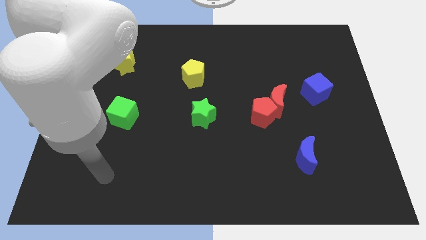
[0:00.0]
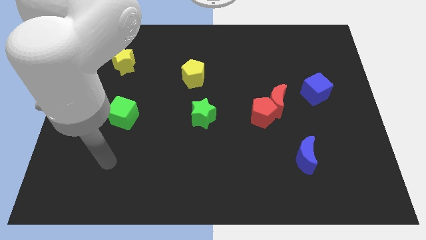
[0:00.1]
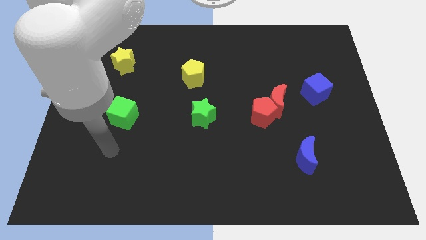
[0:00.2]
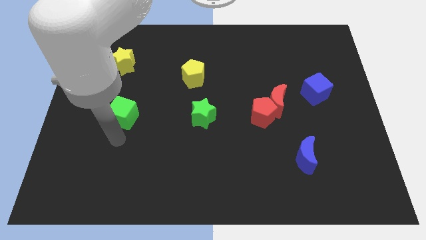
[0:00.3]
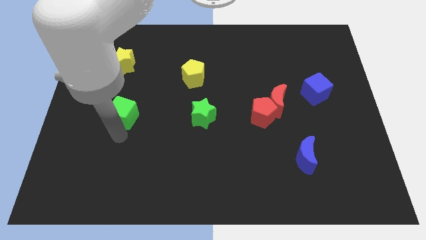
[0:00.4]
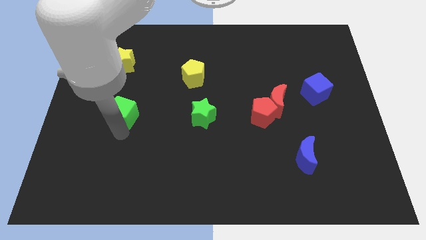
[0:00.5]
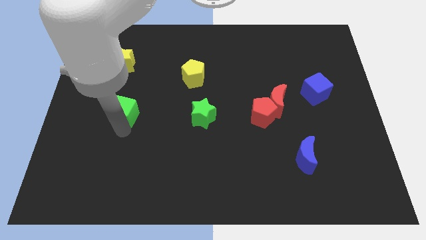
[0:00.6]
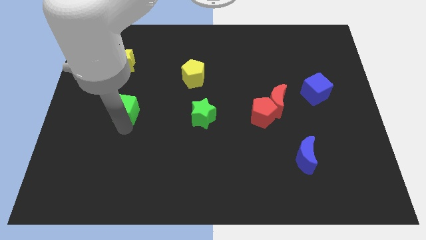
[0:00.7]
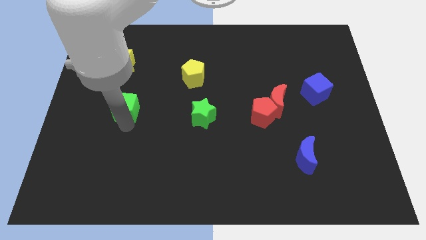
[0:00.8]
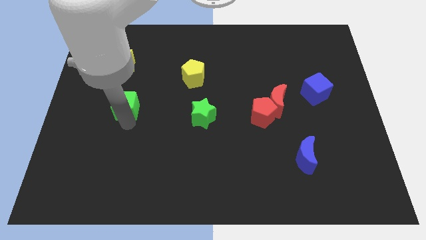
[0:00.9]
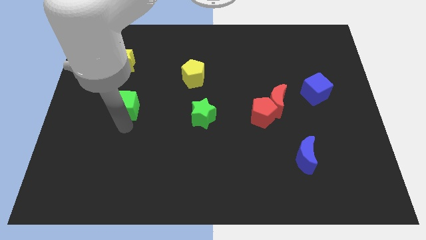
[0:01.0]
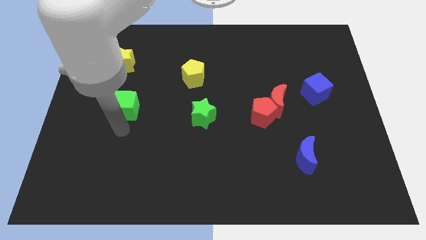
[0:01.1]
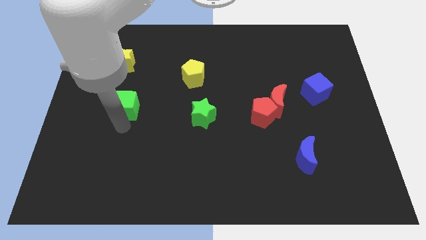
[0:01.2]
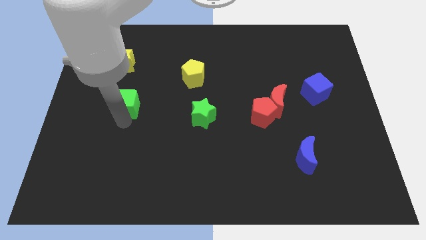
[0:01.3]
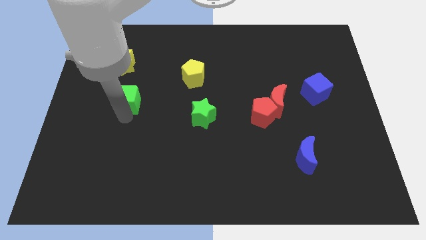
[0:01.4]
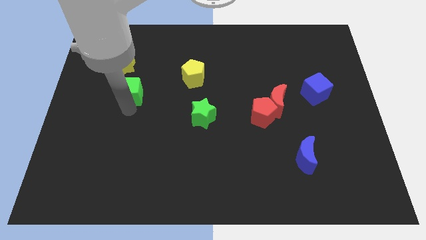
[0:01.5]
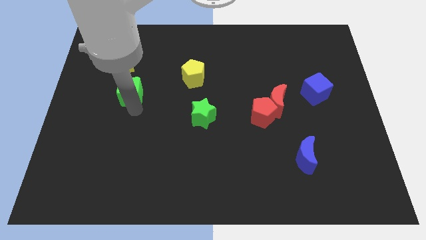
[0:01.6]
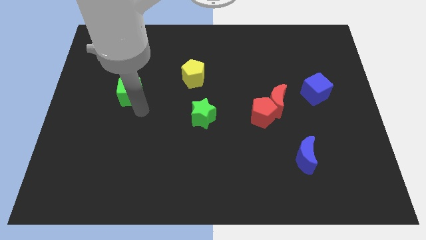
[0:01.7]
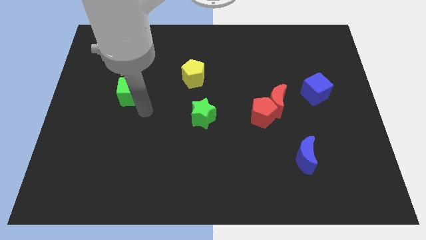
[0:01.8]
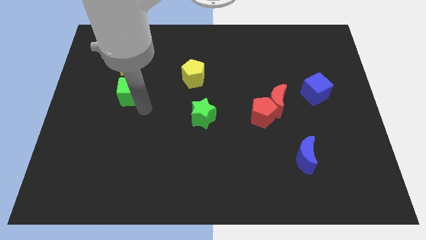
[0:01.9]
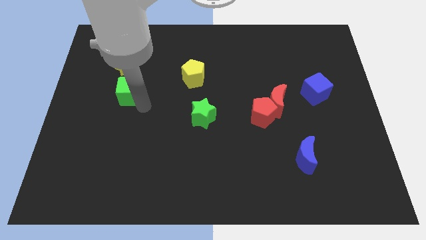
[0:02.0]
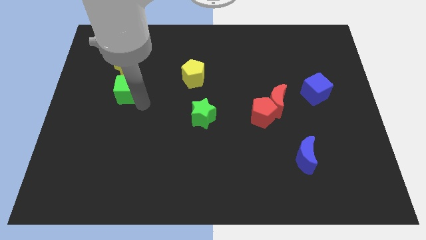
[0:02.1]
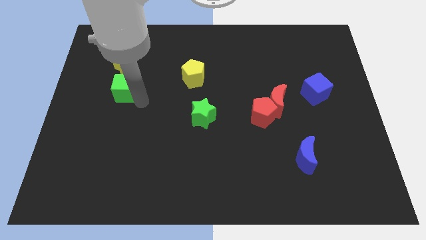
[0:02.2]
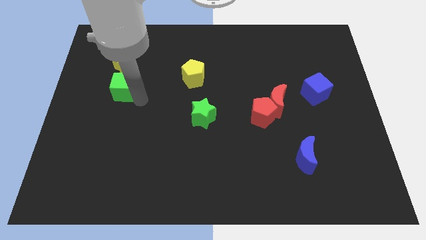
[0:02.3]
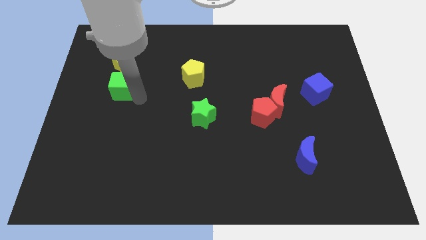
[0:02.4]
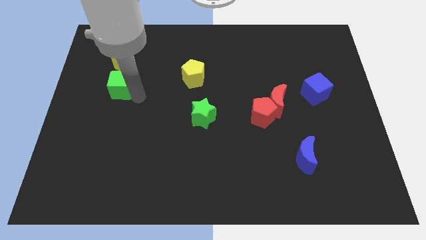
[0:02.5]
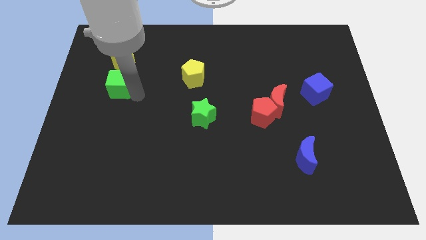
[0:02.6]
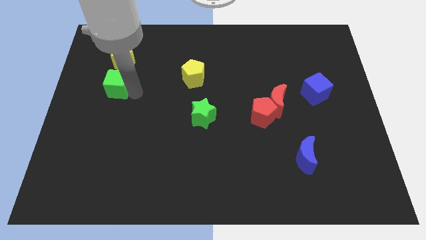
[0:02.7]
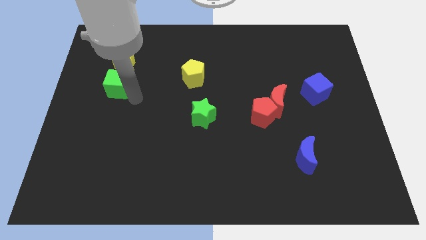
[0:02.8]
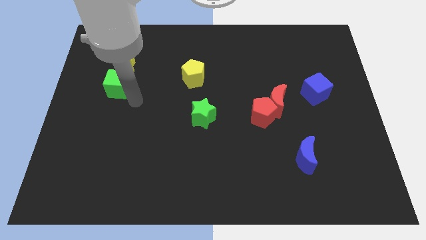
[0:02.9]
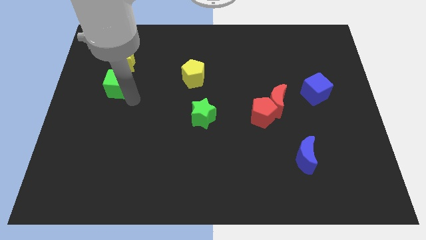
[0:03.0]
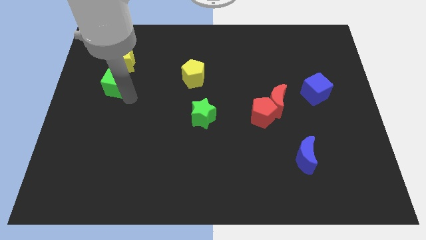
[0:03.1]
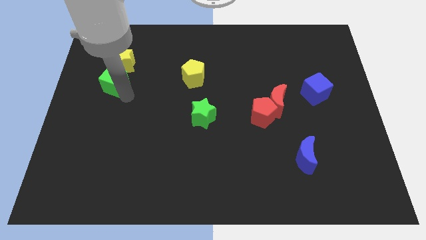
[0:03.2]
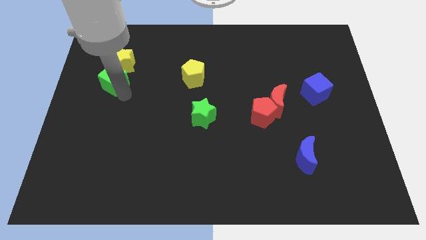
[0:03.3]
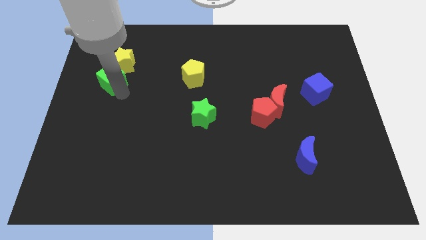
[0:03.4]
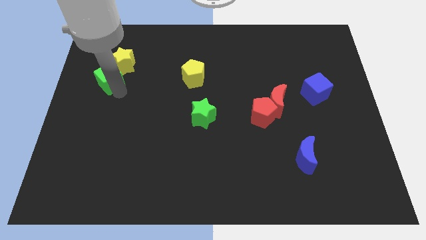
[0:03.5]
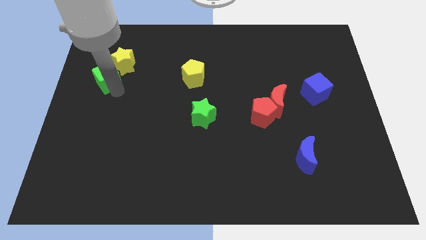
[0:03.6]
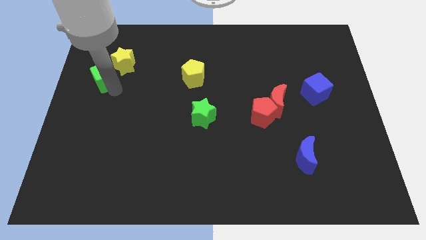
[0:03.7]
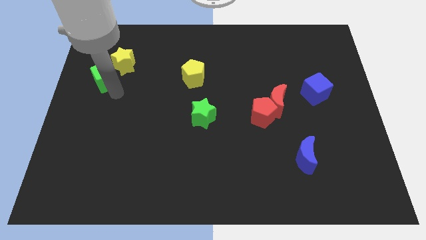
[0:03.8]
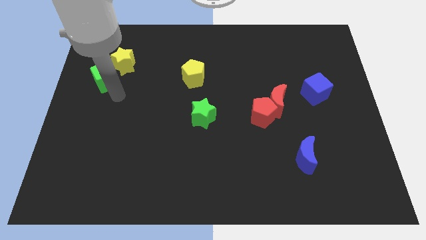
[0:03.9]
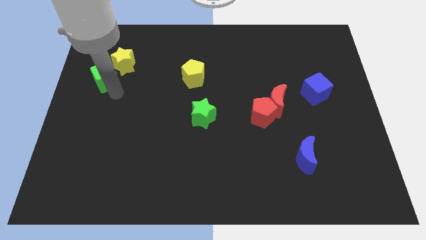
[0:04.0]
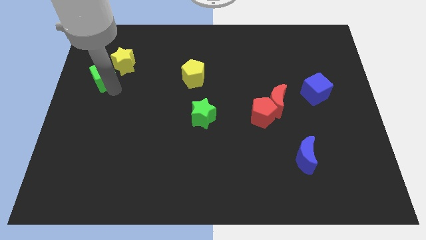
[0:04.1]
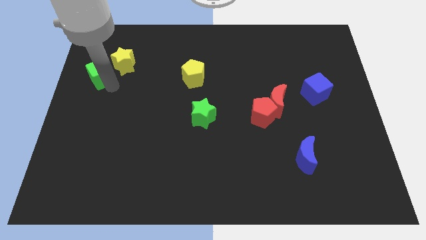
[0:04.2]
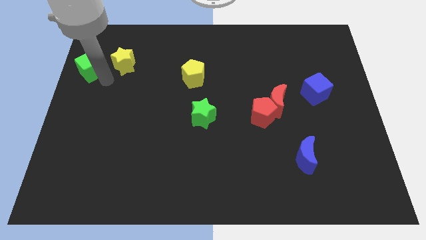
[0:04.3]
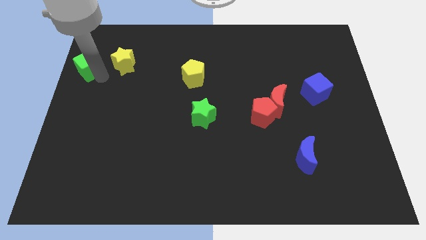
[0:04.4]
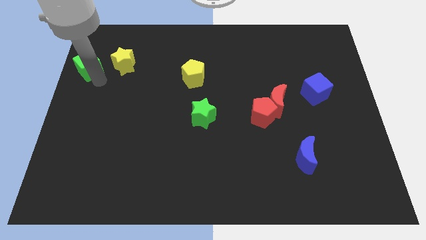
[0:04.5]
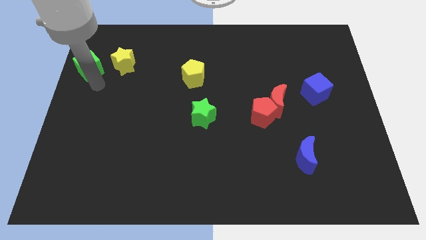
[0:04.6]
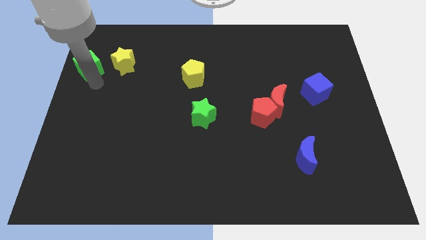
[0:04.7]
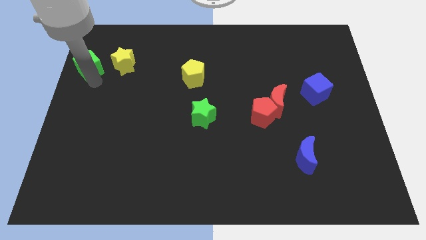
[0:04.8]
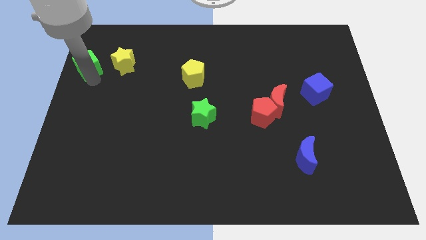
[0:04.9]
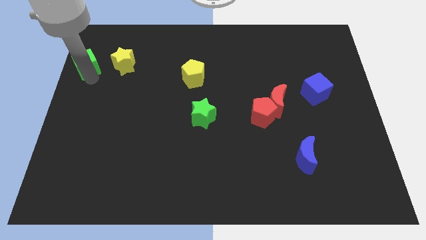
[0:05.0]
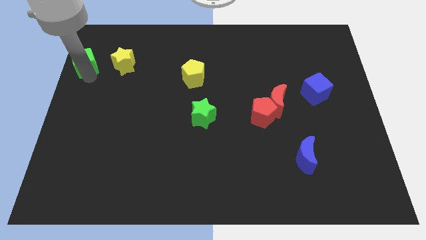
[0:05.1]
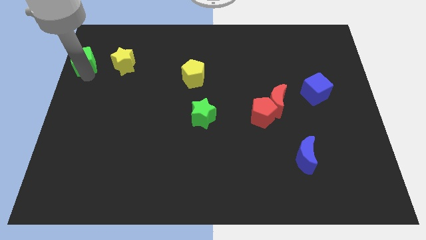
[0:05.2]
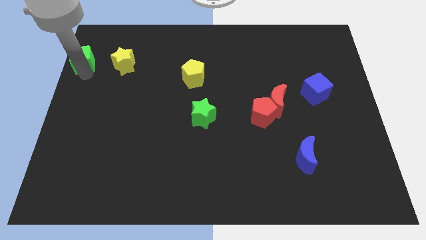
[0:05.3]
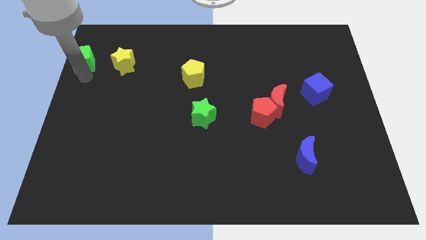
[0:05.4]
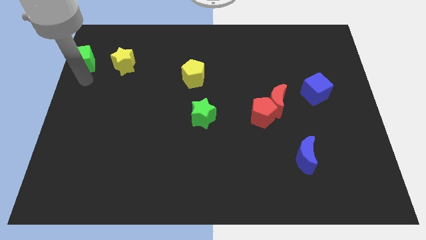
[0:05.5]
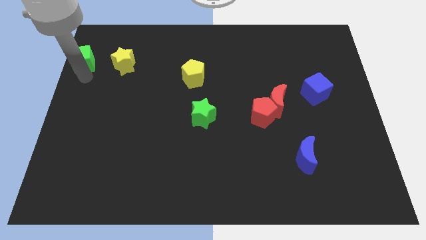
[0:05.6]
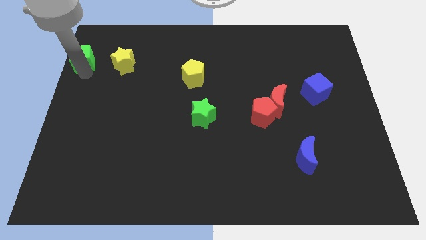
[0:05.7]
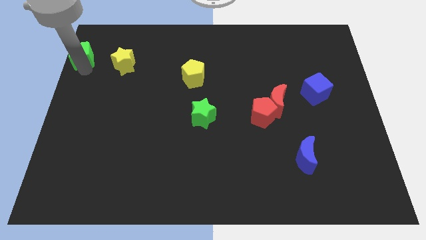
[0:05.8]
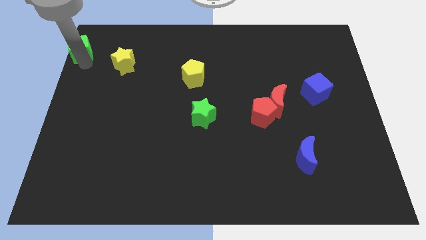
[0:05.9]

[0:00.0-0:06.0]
push the green cube to the top left of the board
